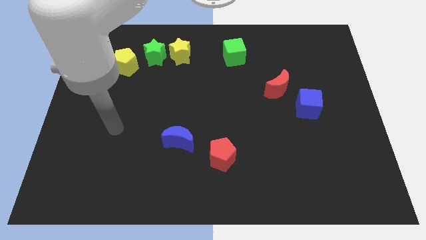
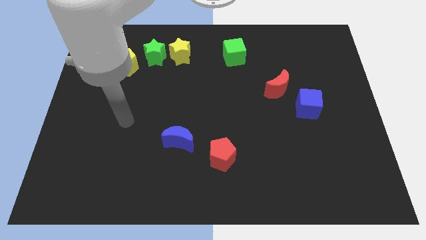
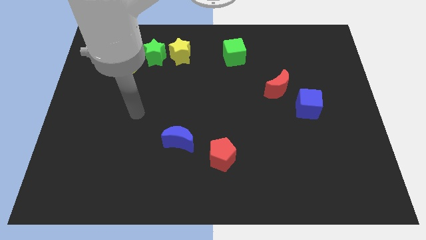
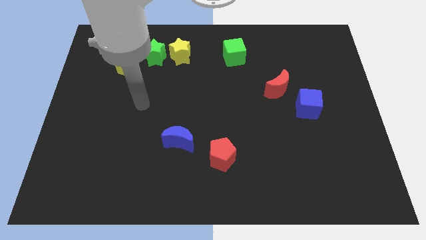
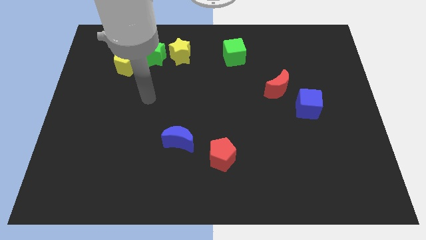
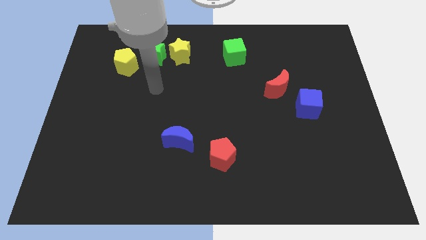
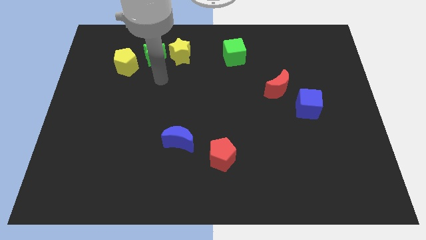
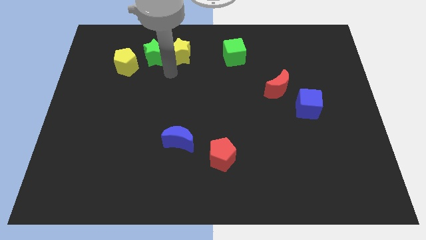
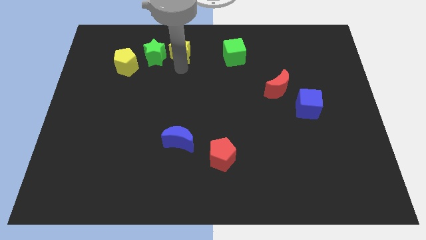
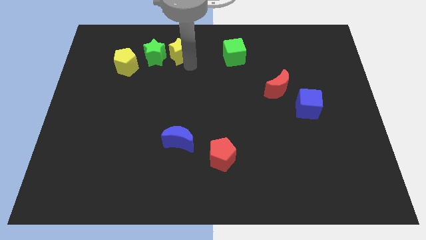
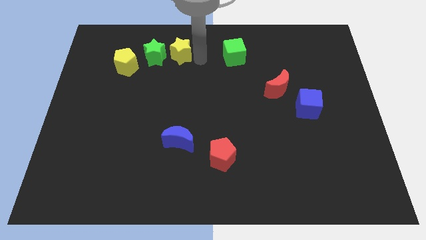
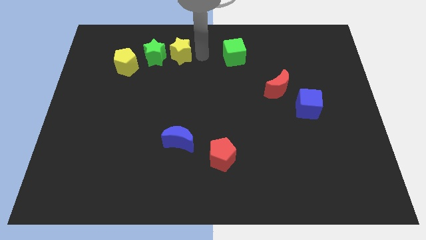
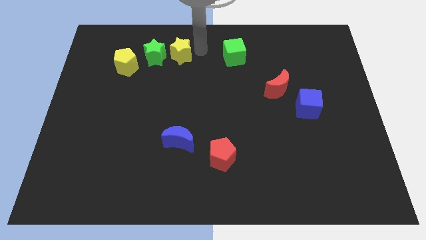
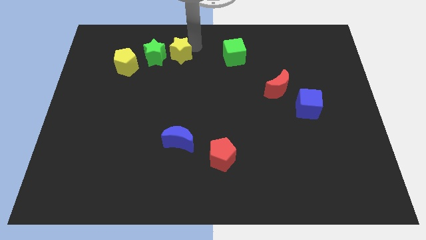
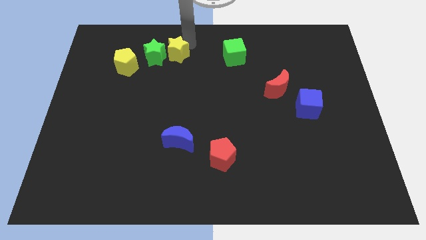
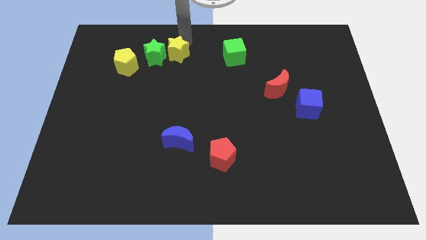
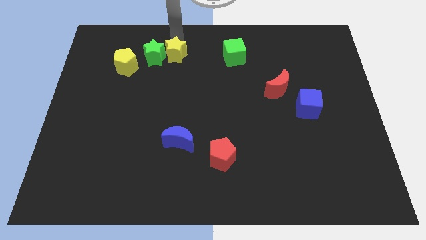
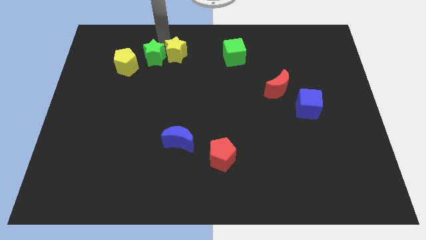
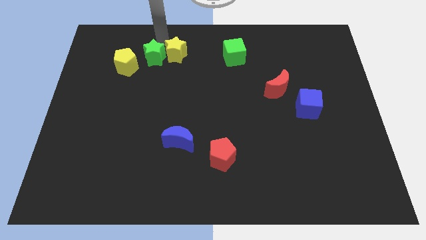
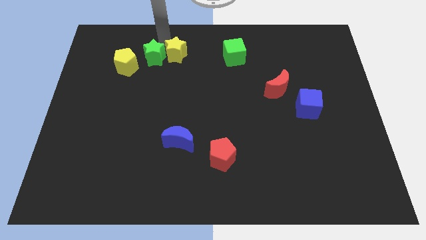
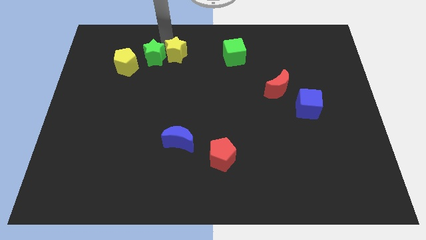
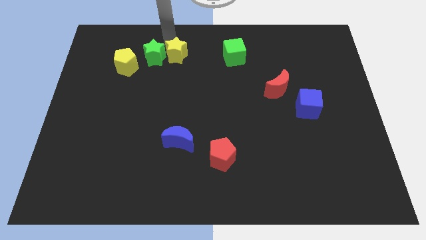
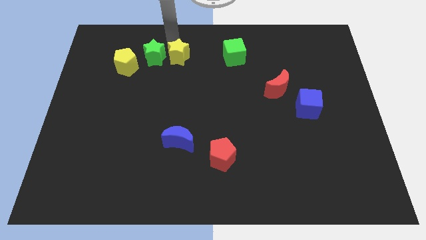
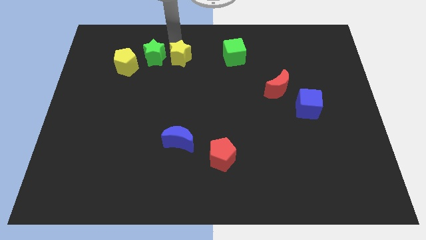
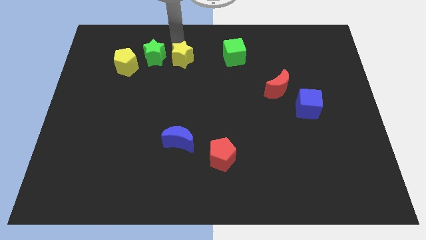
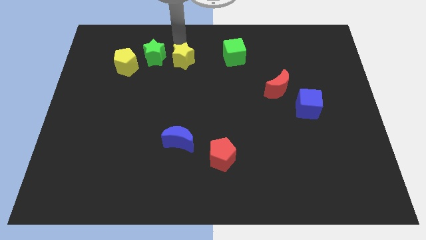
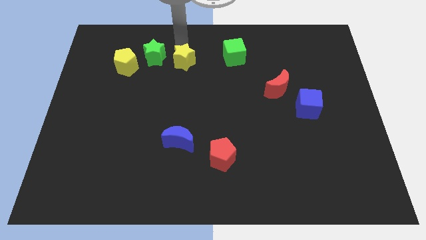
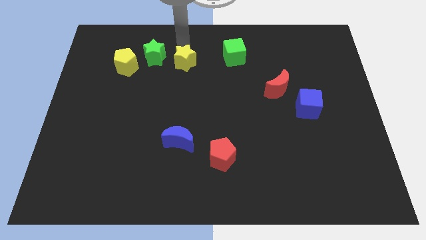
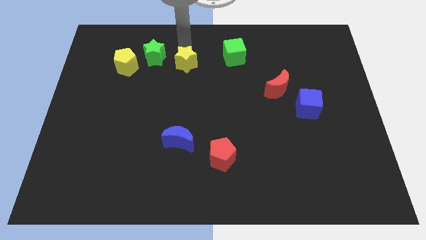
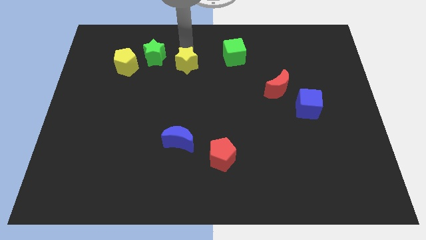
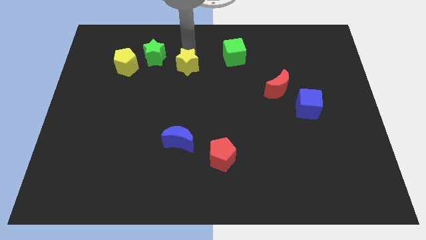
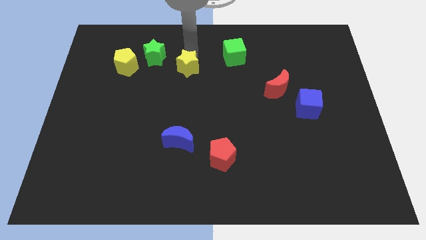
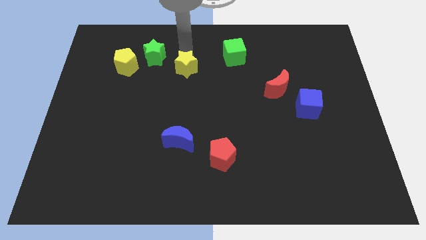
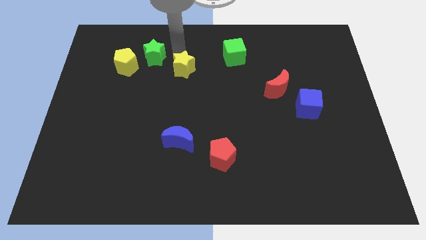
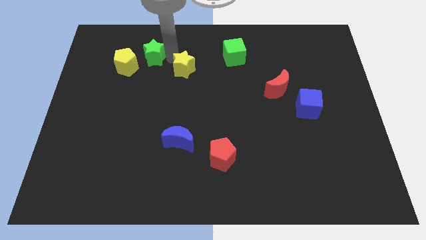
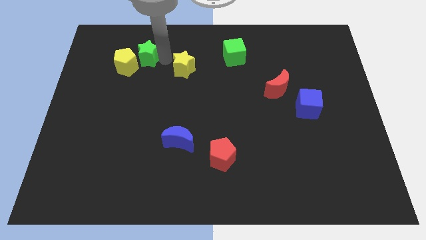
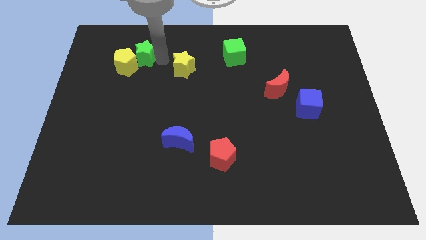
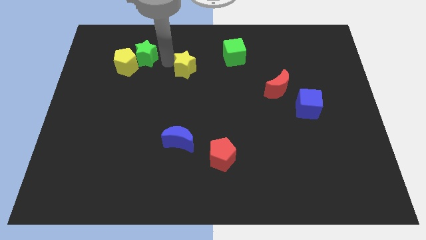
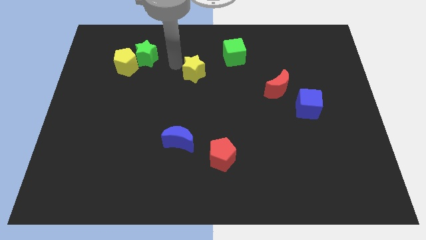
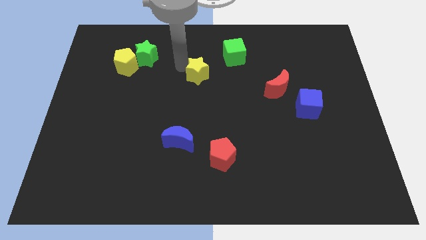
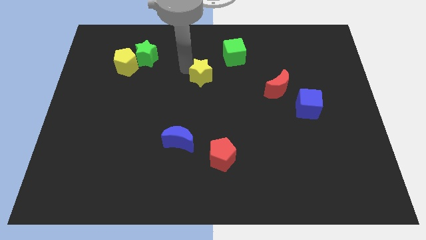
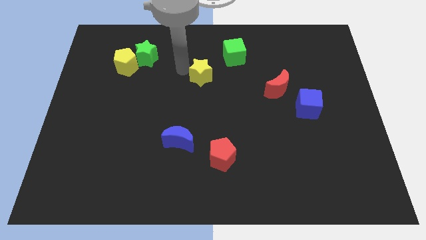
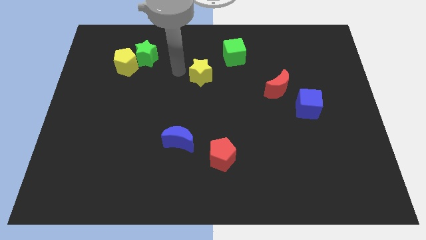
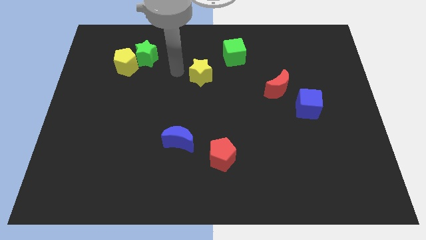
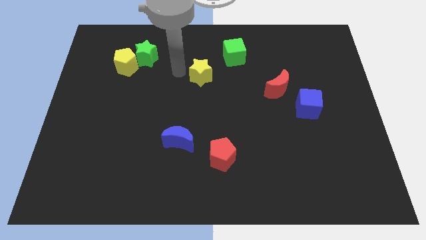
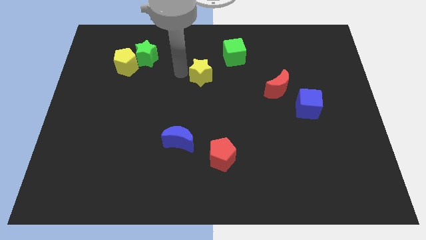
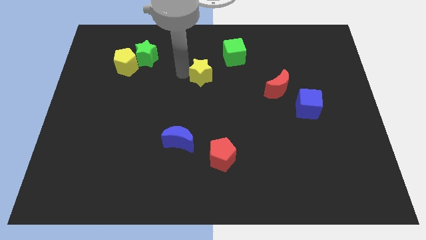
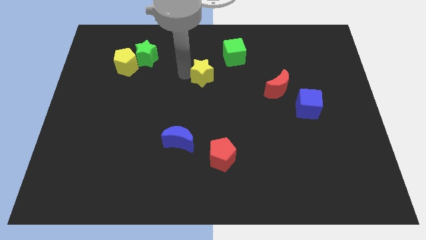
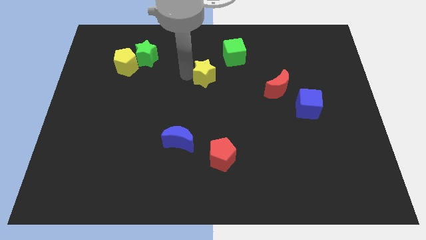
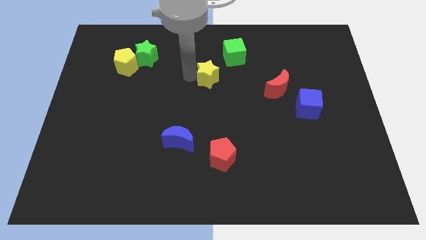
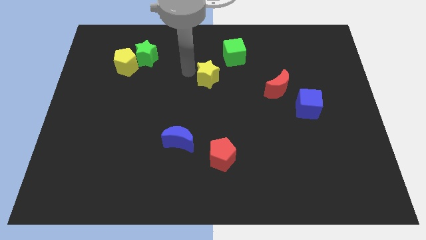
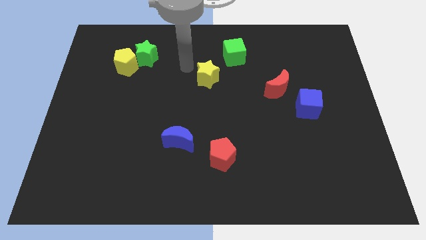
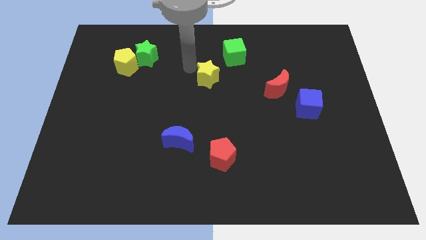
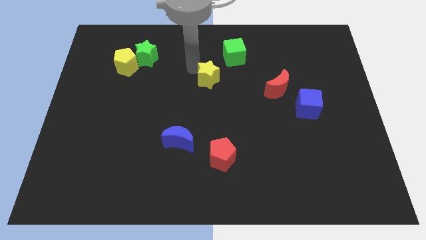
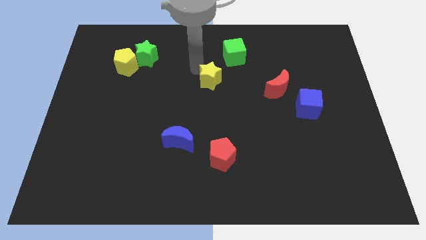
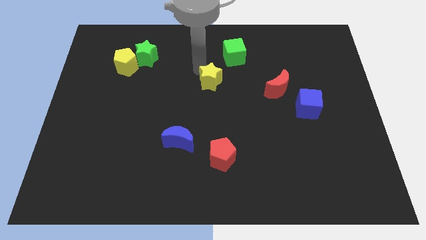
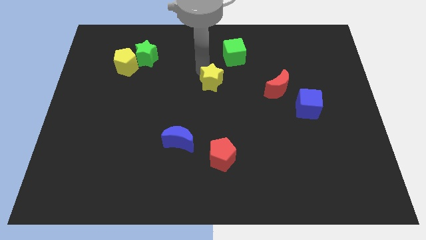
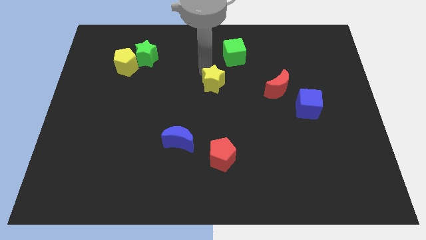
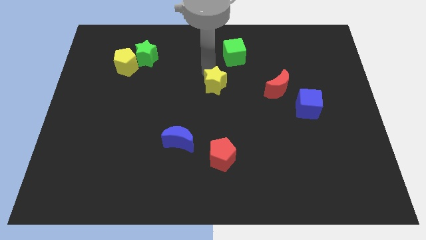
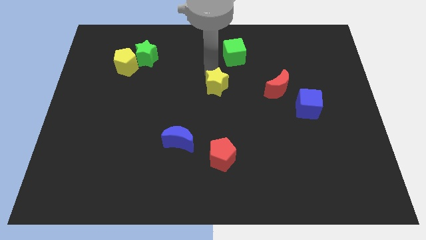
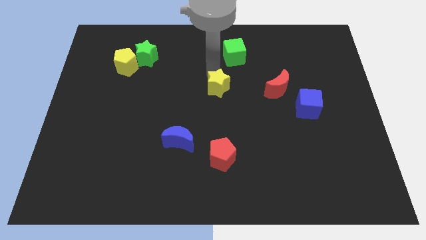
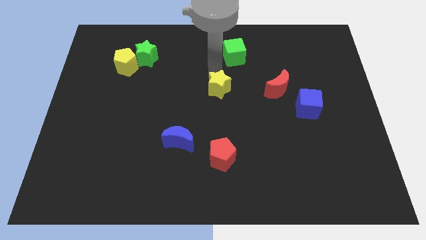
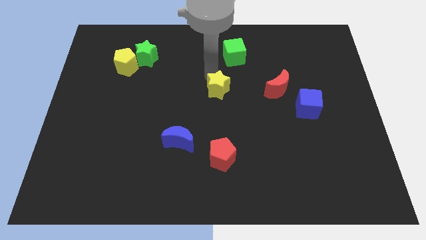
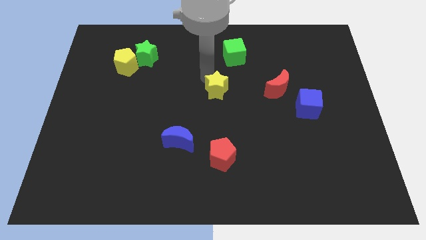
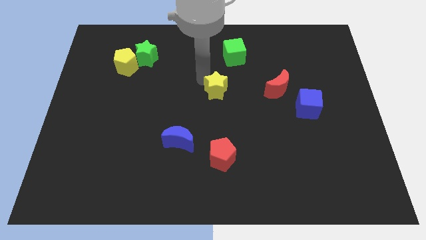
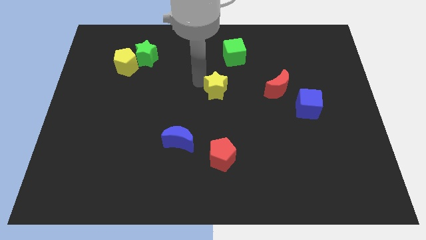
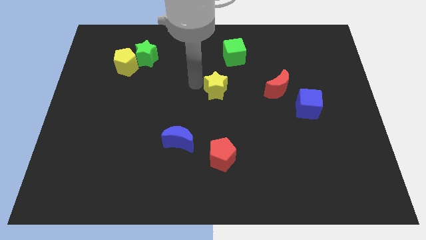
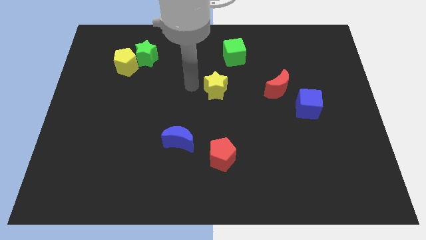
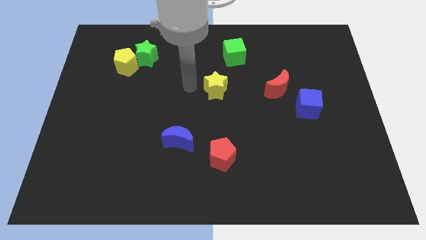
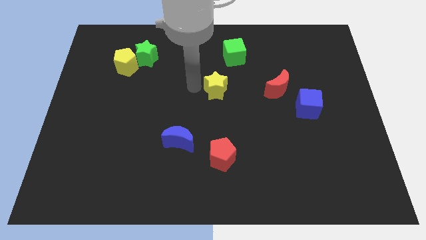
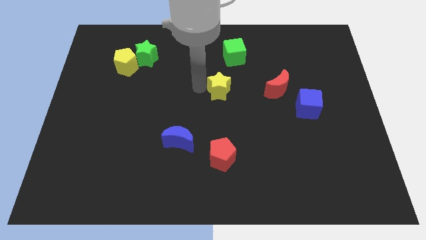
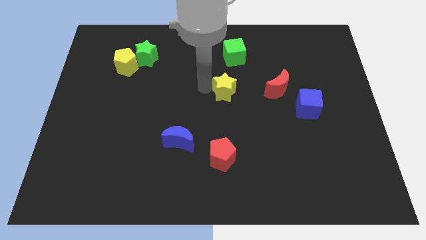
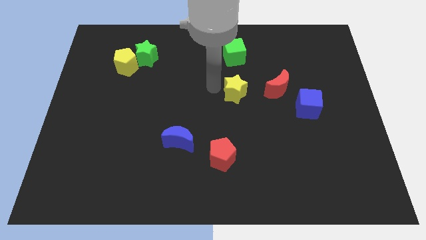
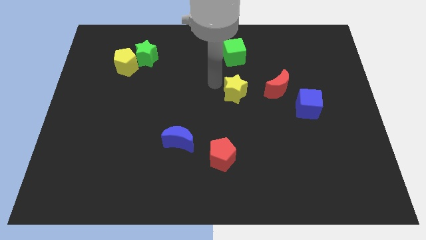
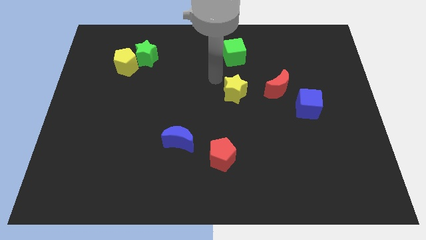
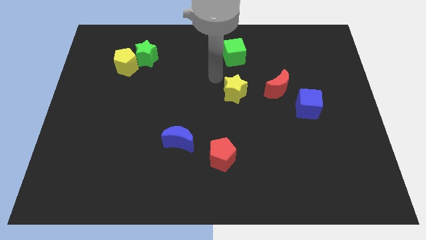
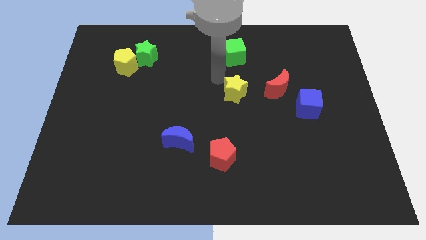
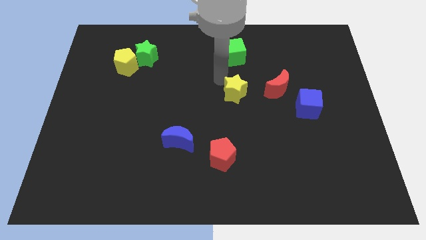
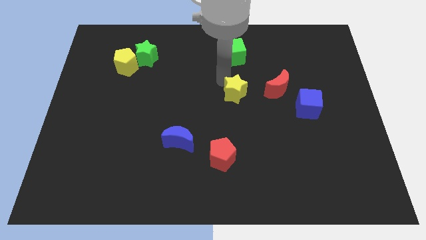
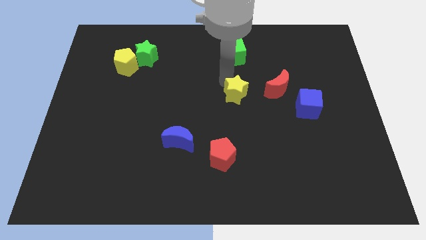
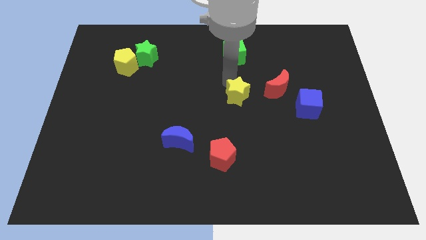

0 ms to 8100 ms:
push the yellow star down and right
